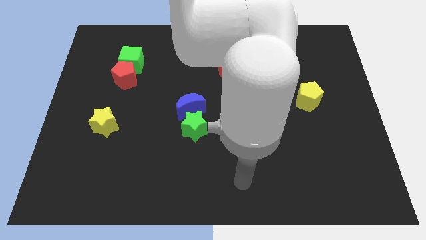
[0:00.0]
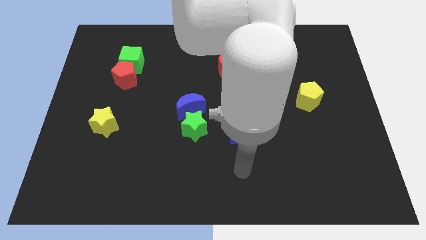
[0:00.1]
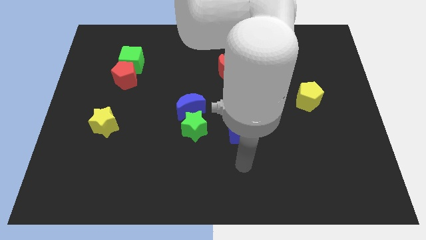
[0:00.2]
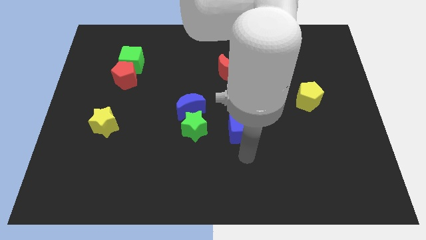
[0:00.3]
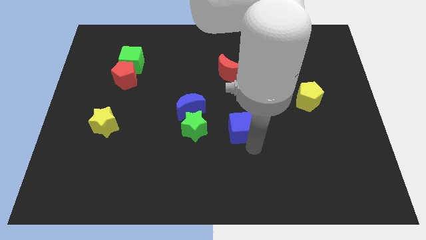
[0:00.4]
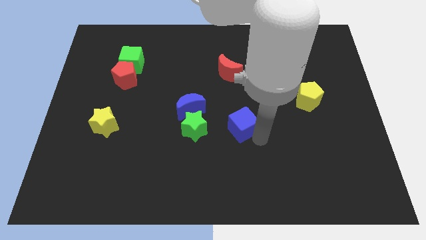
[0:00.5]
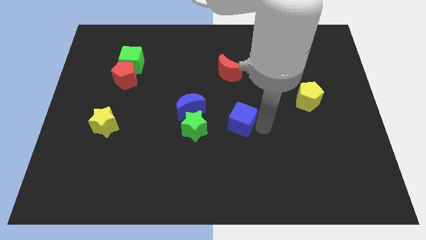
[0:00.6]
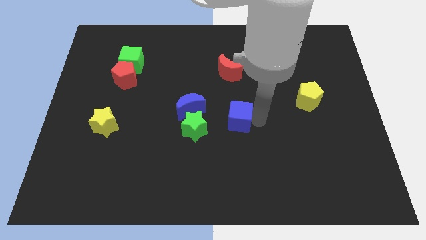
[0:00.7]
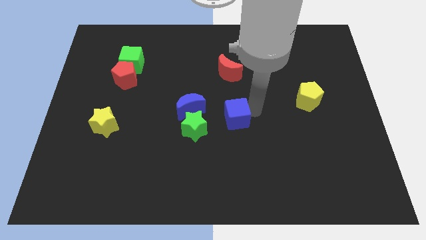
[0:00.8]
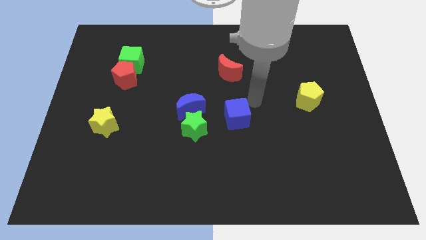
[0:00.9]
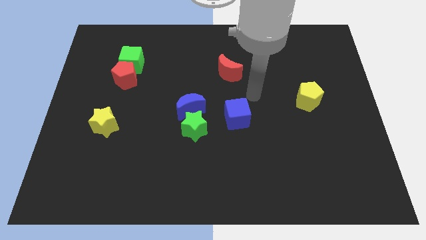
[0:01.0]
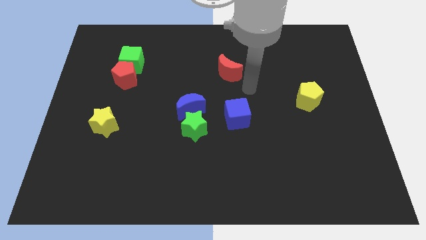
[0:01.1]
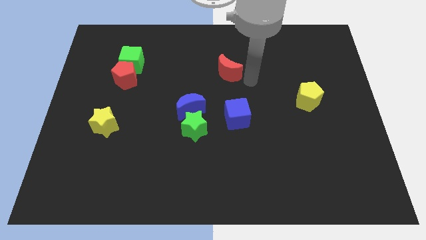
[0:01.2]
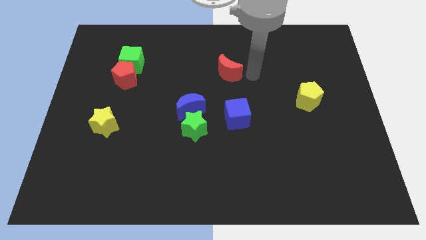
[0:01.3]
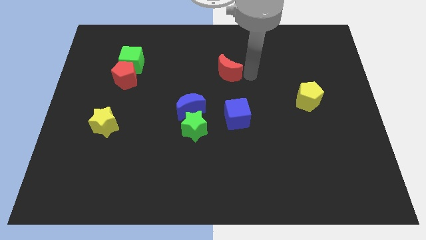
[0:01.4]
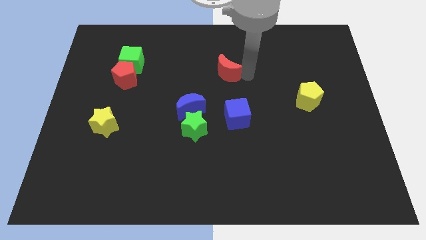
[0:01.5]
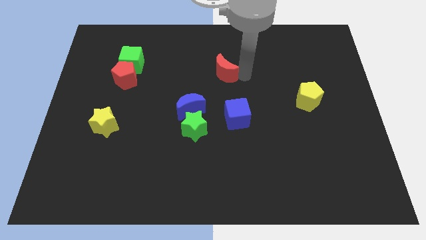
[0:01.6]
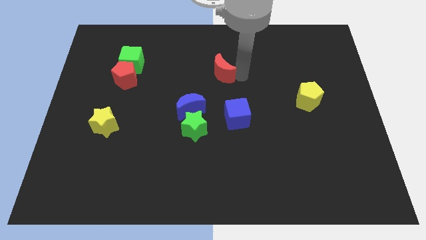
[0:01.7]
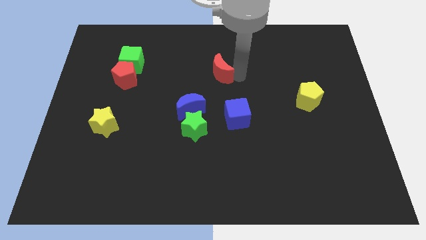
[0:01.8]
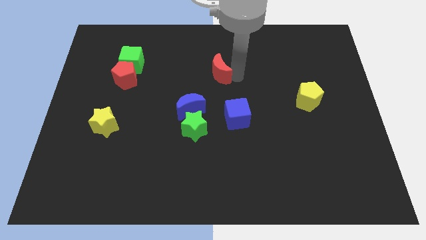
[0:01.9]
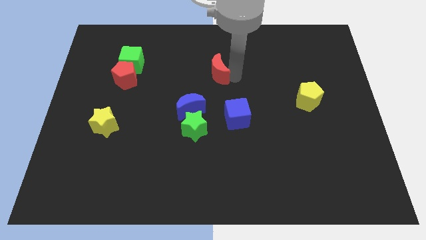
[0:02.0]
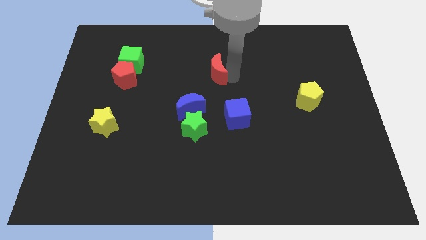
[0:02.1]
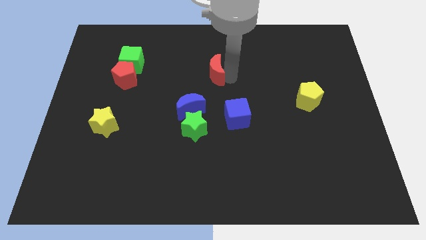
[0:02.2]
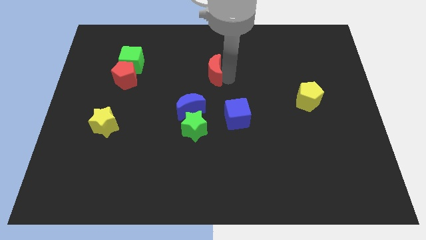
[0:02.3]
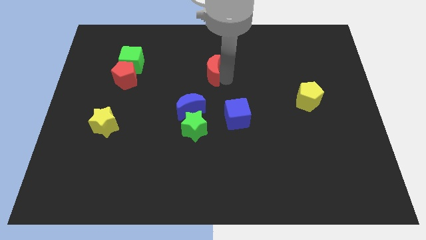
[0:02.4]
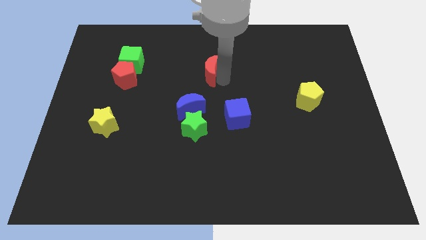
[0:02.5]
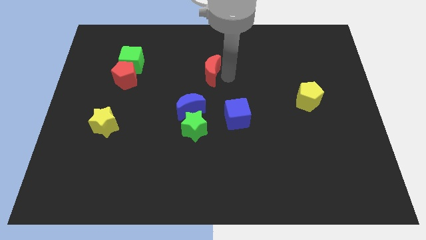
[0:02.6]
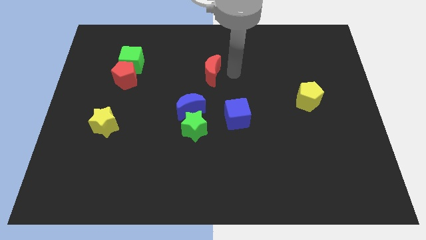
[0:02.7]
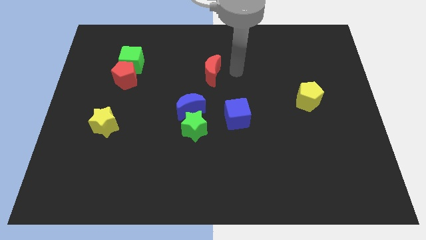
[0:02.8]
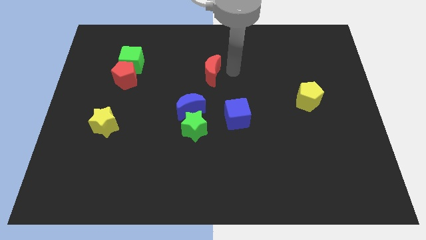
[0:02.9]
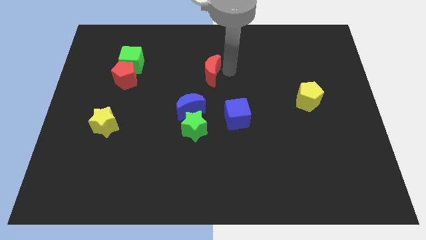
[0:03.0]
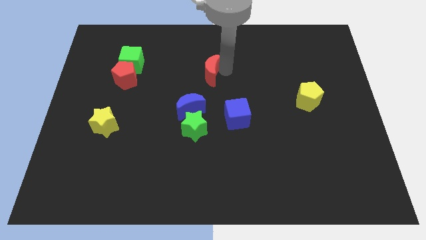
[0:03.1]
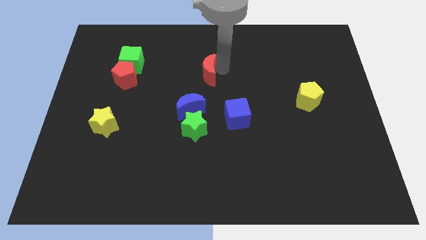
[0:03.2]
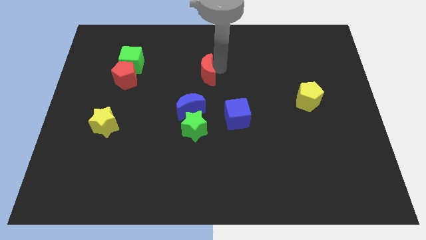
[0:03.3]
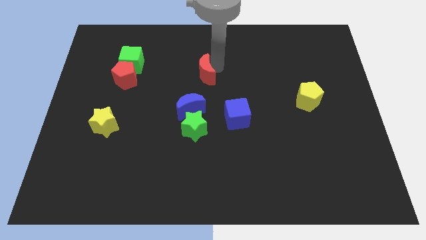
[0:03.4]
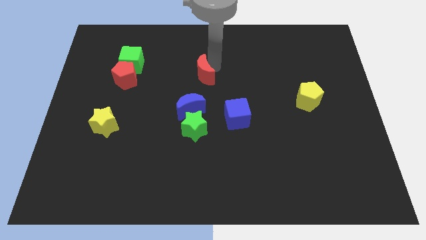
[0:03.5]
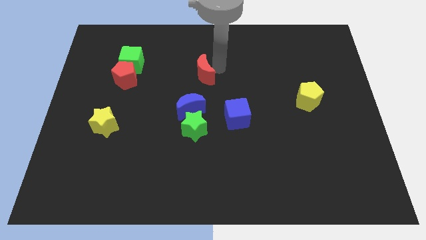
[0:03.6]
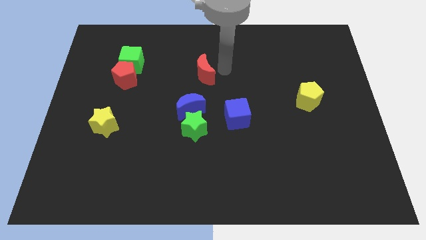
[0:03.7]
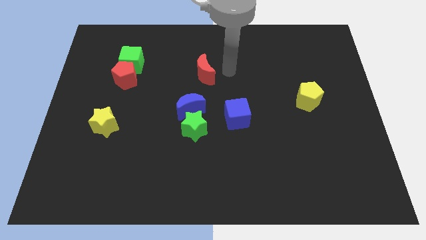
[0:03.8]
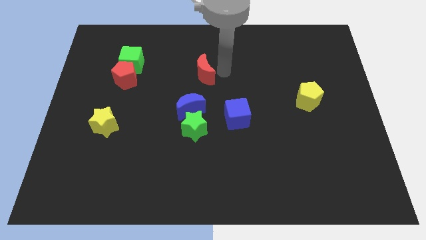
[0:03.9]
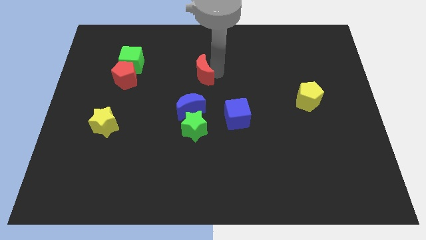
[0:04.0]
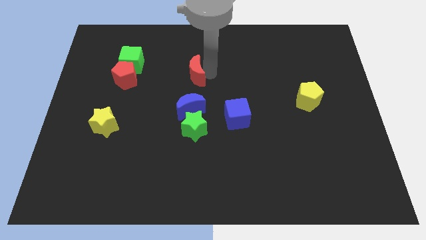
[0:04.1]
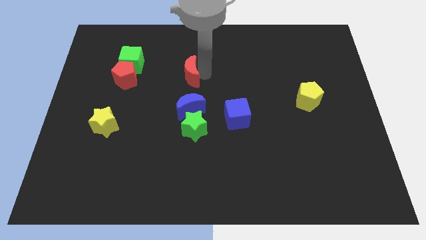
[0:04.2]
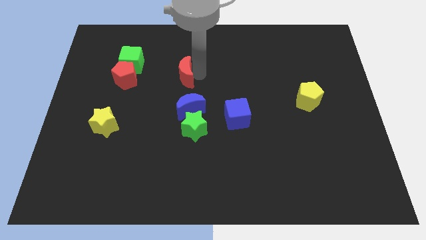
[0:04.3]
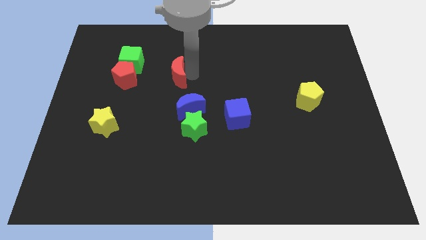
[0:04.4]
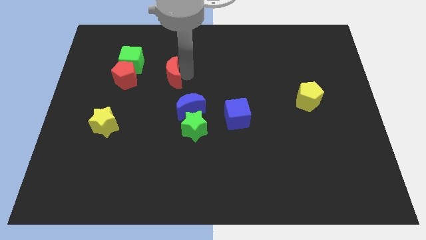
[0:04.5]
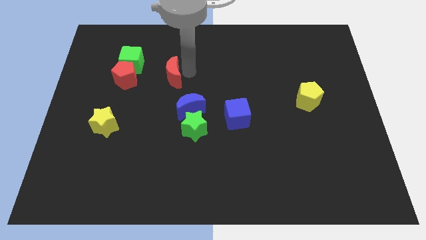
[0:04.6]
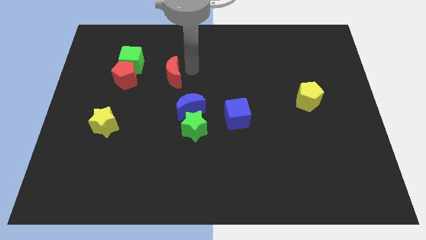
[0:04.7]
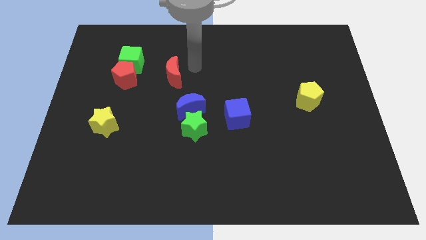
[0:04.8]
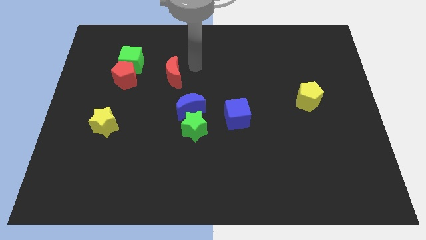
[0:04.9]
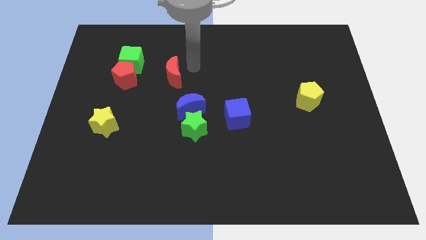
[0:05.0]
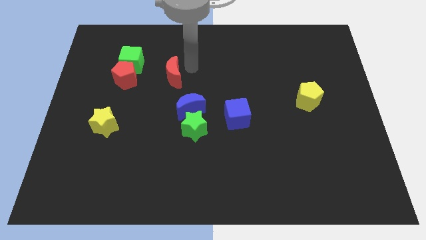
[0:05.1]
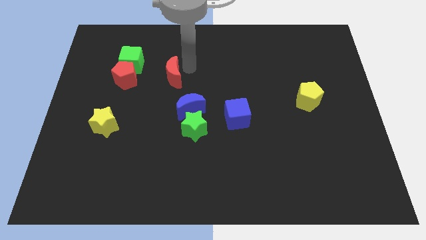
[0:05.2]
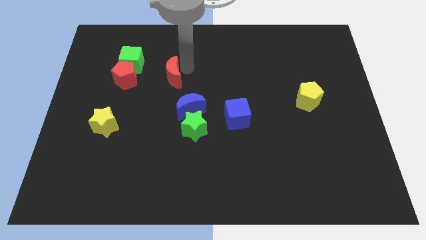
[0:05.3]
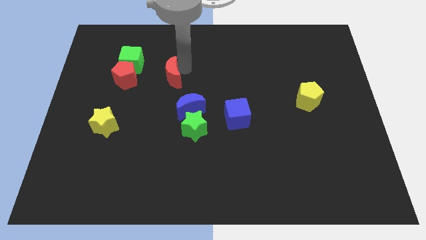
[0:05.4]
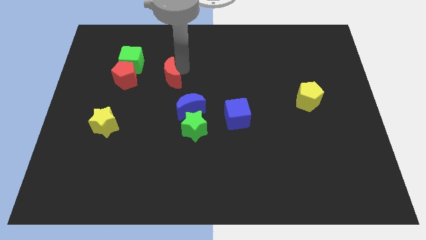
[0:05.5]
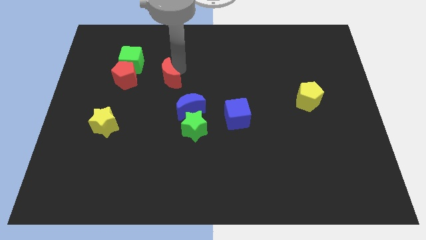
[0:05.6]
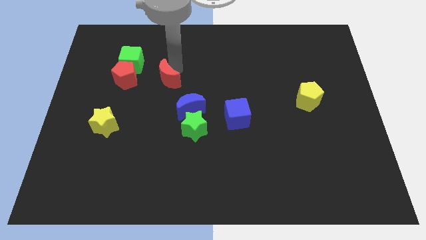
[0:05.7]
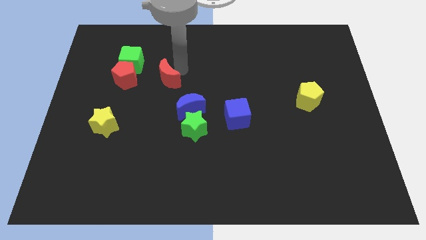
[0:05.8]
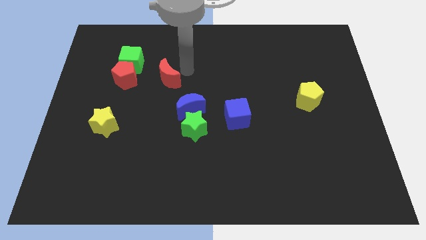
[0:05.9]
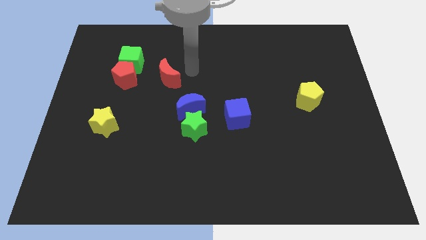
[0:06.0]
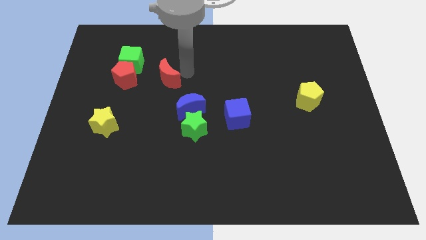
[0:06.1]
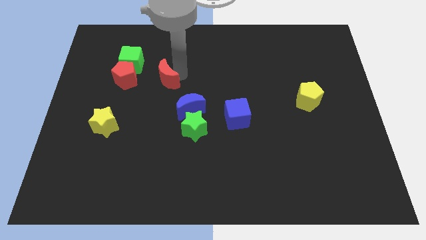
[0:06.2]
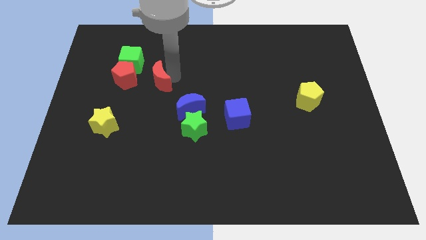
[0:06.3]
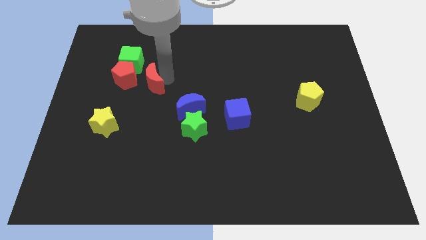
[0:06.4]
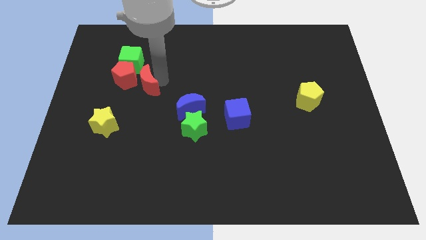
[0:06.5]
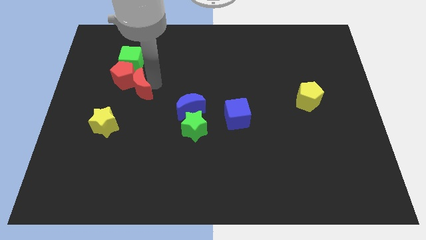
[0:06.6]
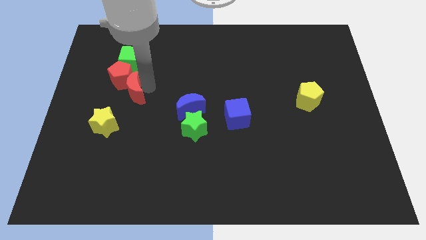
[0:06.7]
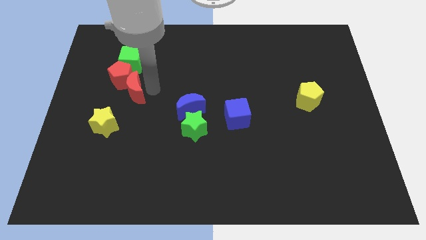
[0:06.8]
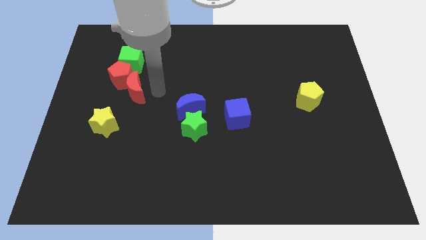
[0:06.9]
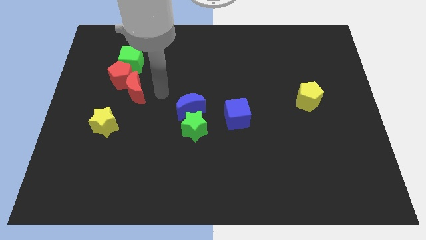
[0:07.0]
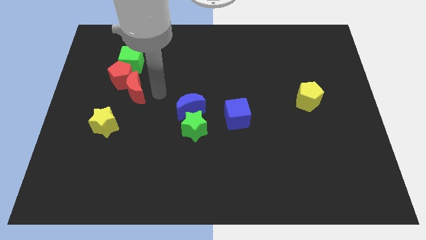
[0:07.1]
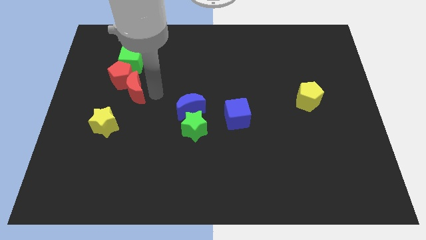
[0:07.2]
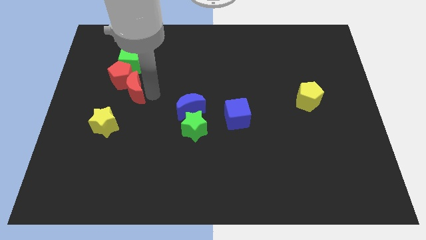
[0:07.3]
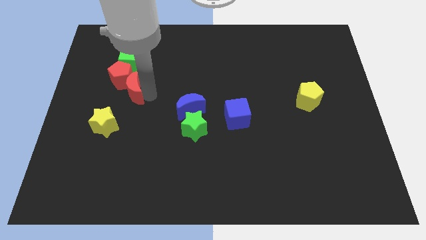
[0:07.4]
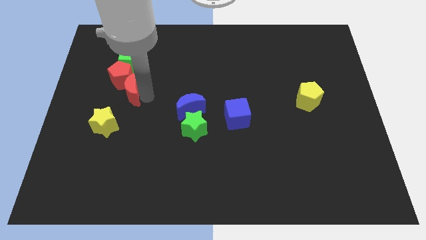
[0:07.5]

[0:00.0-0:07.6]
push the red moon to the top side of the yellow star
